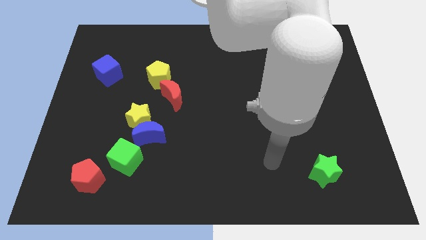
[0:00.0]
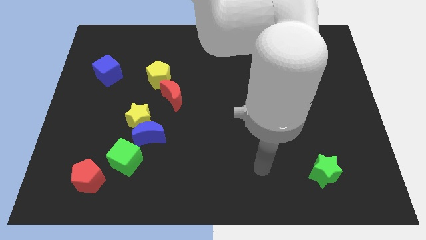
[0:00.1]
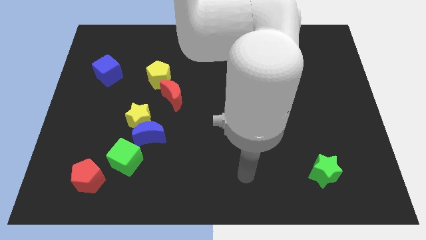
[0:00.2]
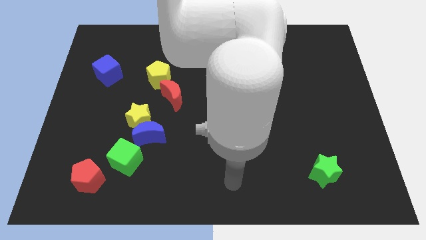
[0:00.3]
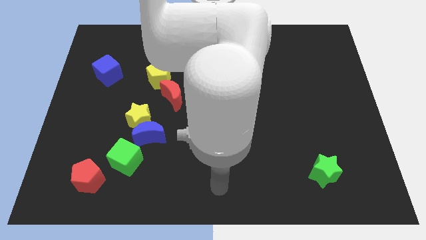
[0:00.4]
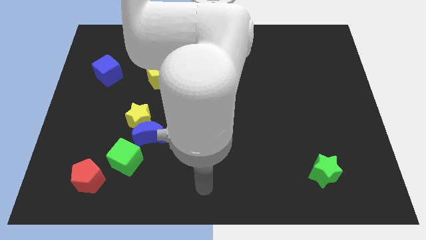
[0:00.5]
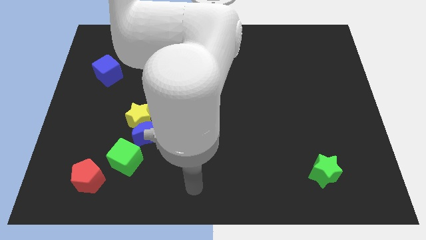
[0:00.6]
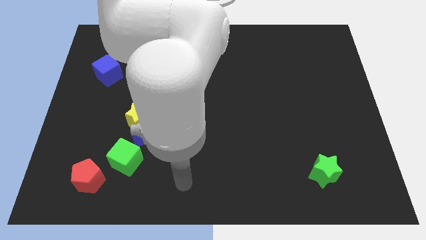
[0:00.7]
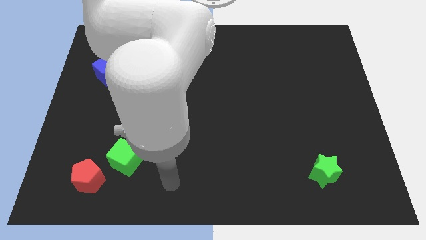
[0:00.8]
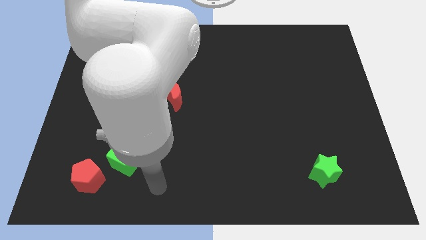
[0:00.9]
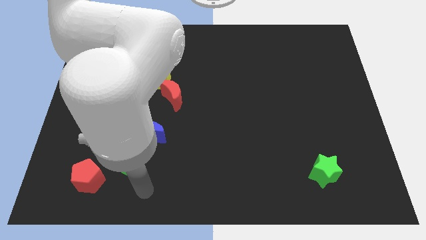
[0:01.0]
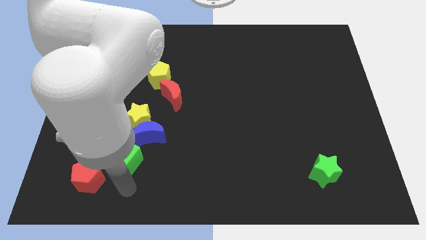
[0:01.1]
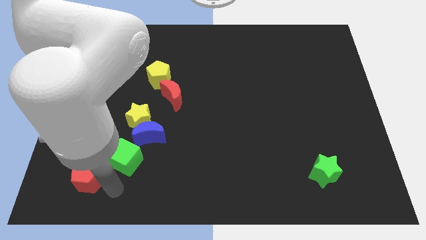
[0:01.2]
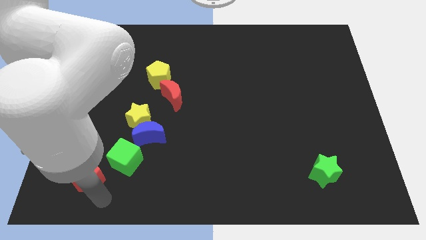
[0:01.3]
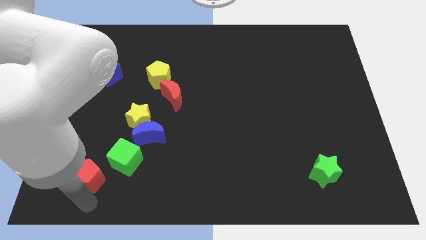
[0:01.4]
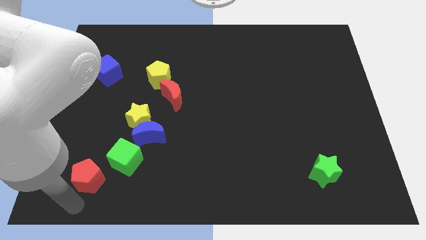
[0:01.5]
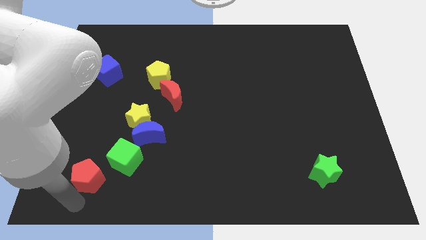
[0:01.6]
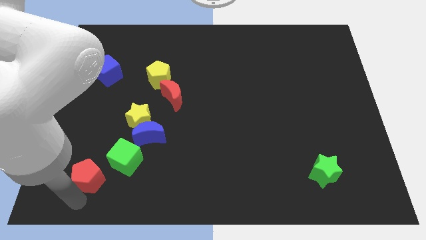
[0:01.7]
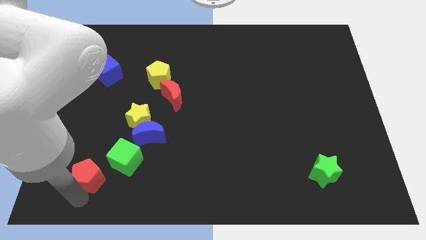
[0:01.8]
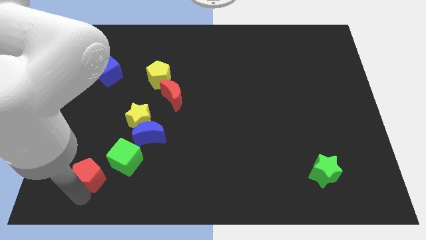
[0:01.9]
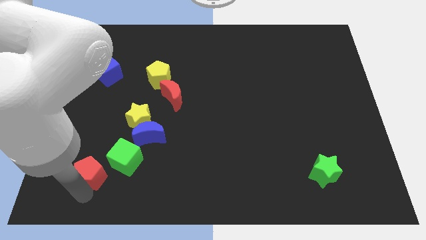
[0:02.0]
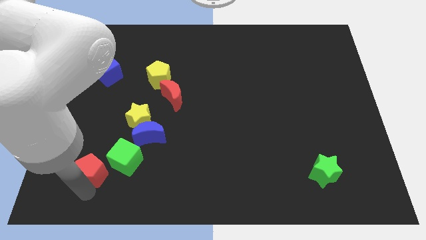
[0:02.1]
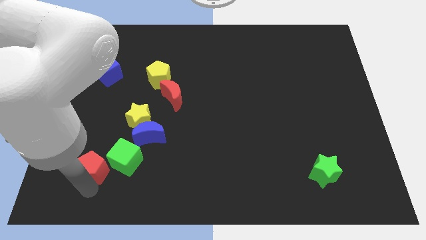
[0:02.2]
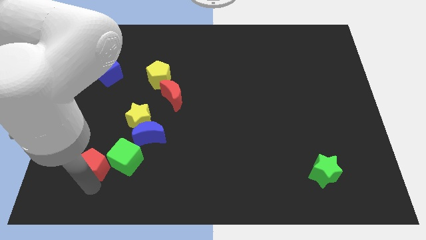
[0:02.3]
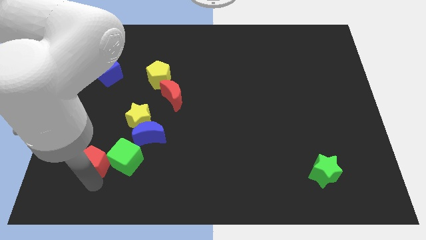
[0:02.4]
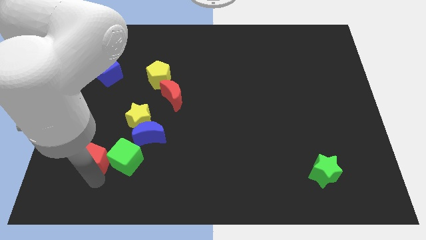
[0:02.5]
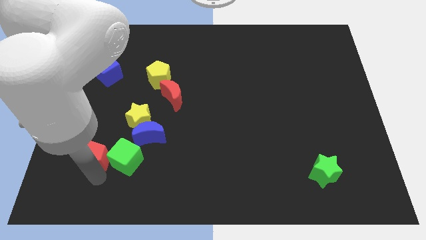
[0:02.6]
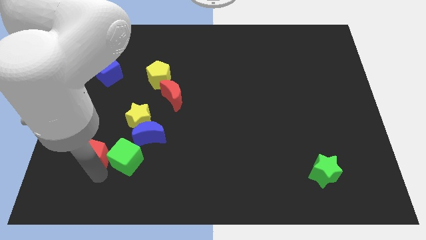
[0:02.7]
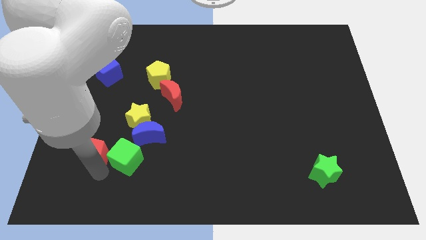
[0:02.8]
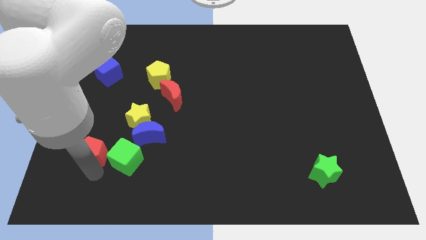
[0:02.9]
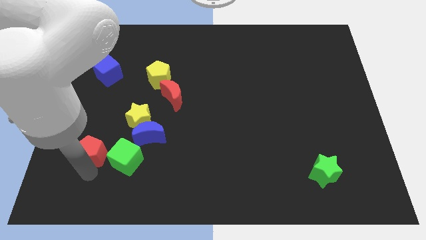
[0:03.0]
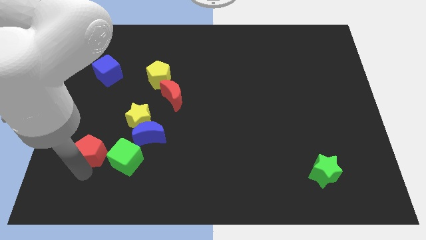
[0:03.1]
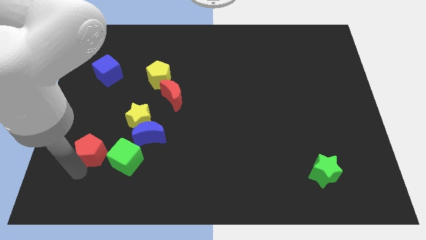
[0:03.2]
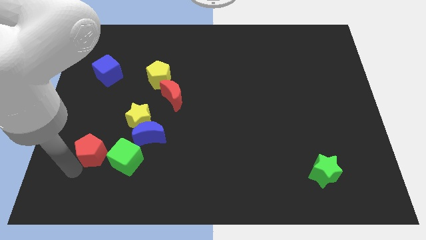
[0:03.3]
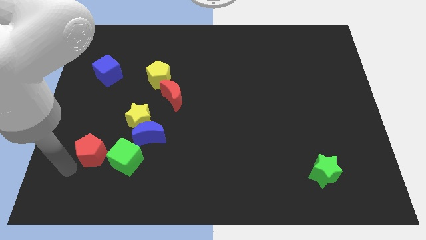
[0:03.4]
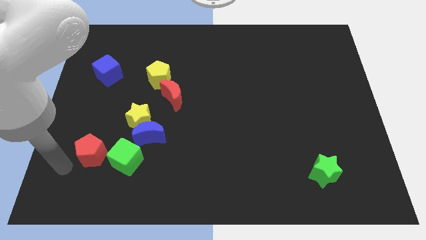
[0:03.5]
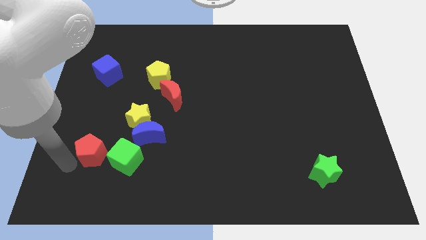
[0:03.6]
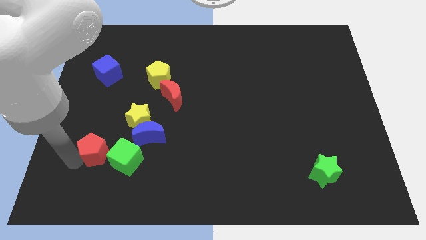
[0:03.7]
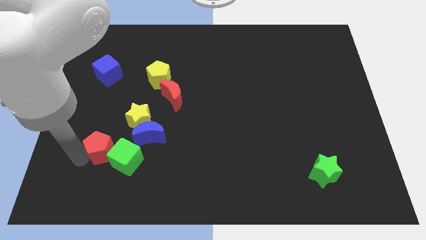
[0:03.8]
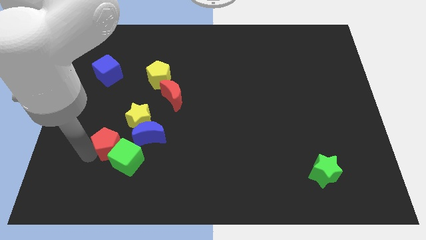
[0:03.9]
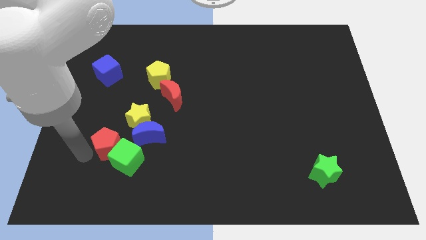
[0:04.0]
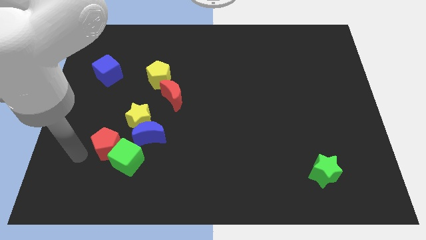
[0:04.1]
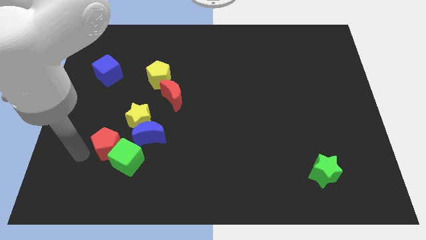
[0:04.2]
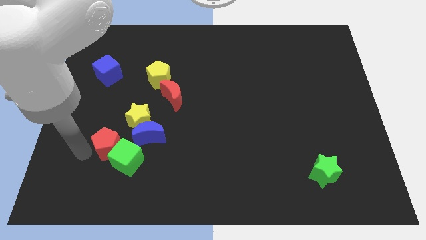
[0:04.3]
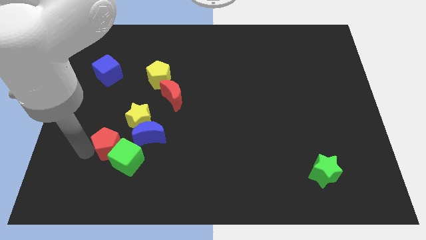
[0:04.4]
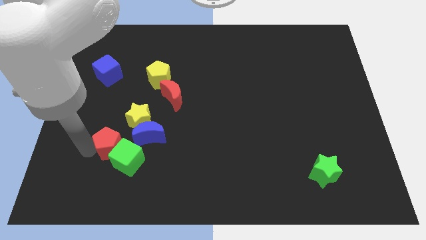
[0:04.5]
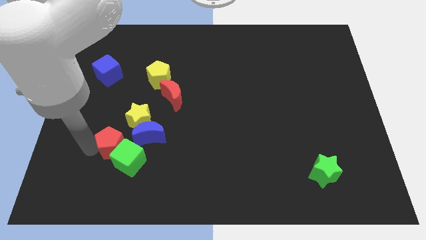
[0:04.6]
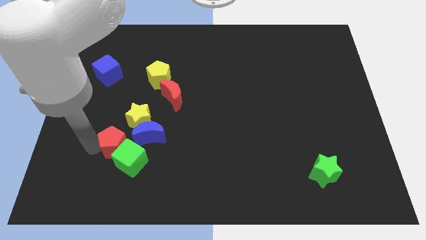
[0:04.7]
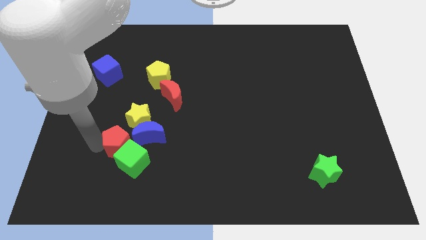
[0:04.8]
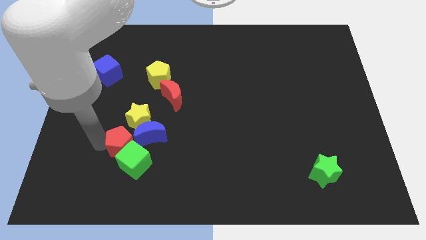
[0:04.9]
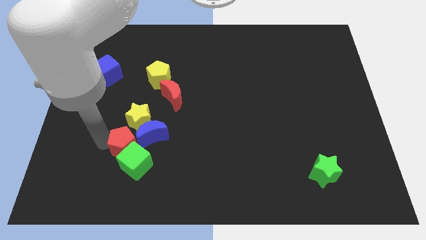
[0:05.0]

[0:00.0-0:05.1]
slide the red pentagon towards the blue moon

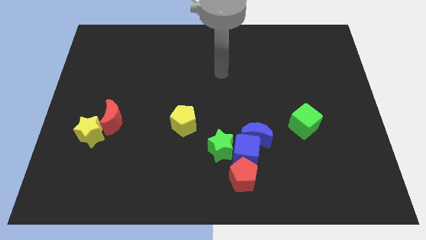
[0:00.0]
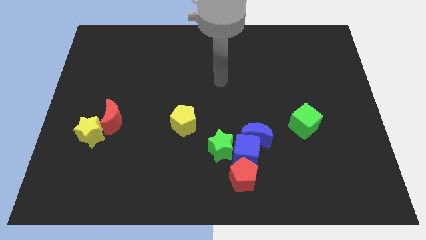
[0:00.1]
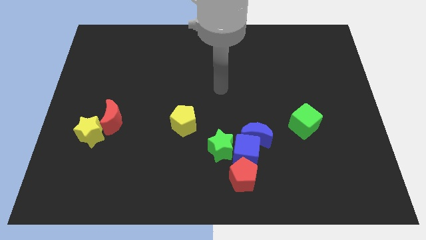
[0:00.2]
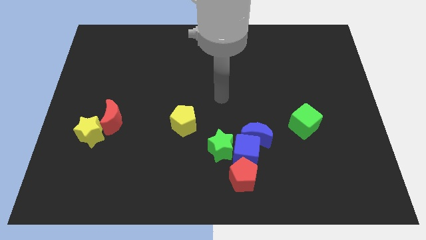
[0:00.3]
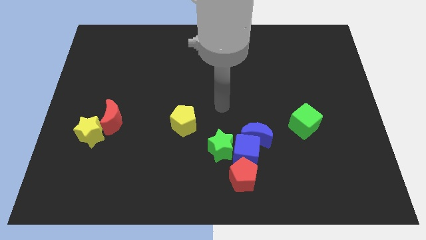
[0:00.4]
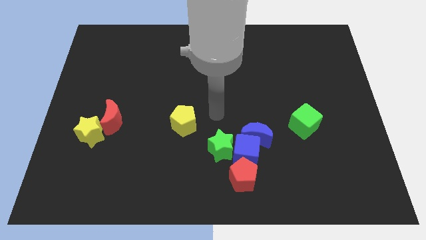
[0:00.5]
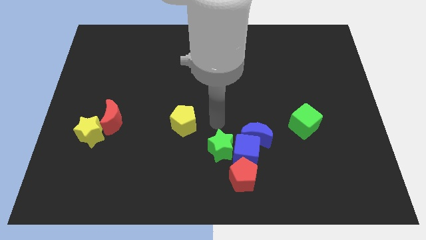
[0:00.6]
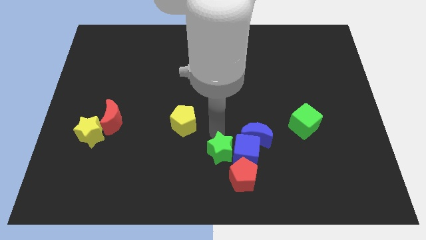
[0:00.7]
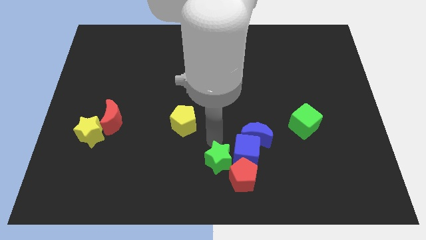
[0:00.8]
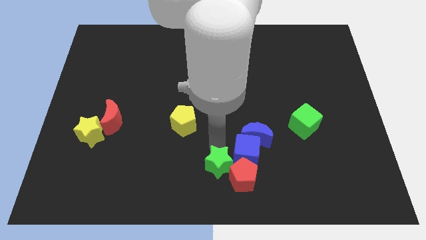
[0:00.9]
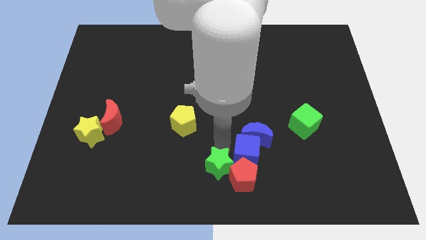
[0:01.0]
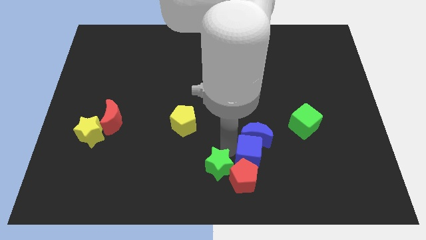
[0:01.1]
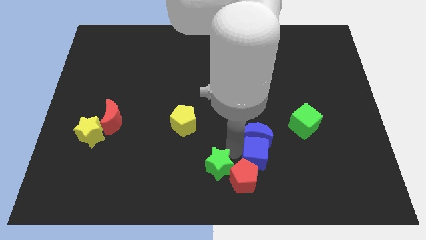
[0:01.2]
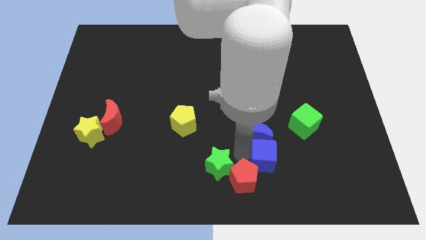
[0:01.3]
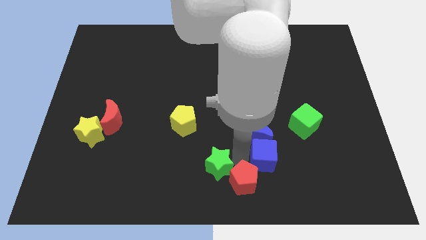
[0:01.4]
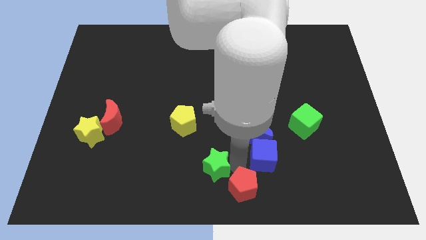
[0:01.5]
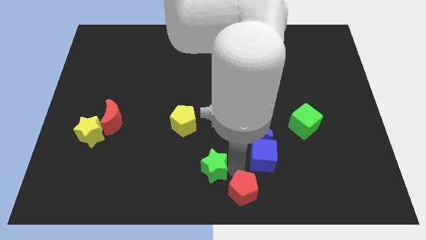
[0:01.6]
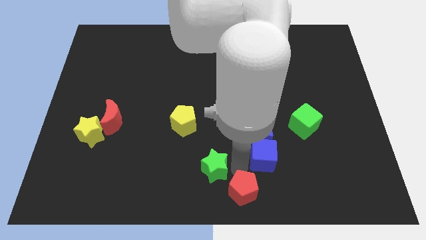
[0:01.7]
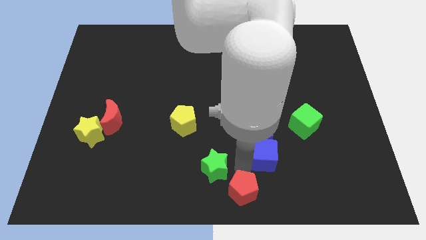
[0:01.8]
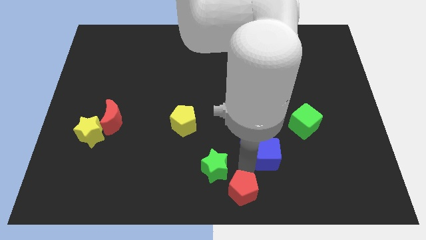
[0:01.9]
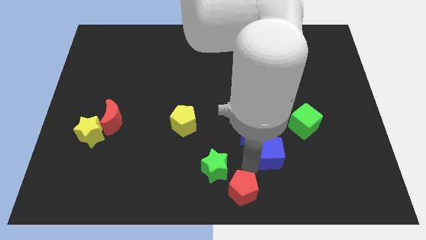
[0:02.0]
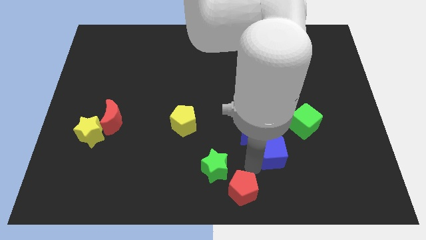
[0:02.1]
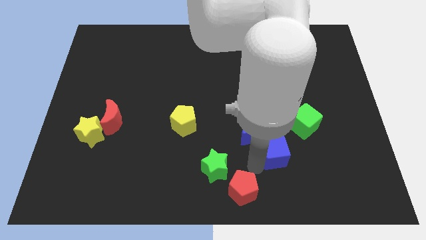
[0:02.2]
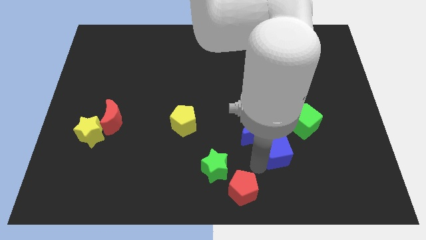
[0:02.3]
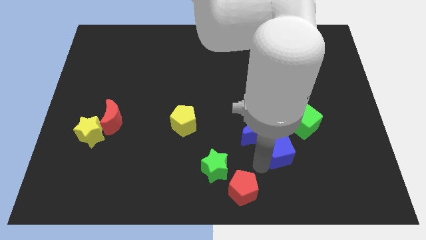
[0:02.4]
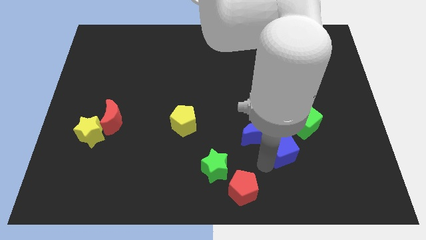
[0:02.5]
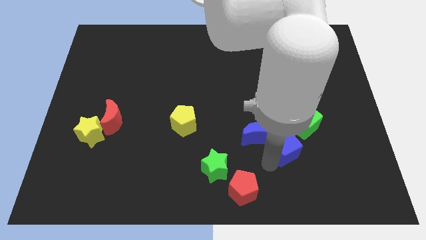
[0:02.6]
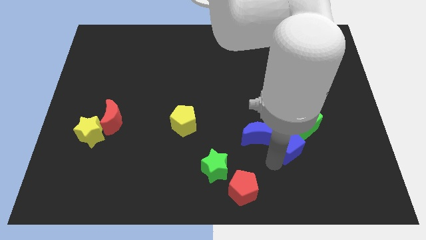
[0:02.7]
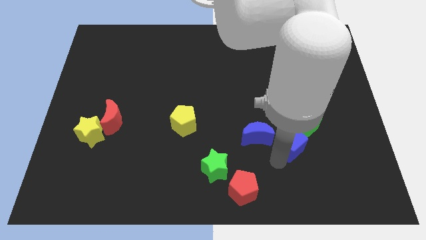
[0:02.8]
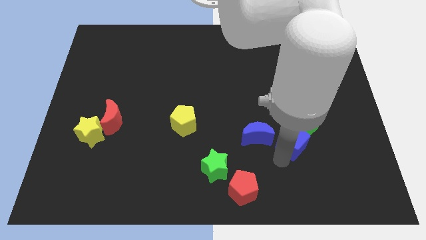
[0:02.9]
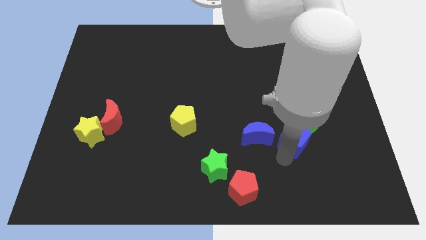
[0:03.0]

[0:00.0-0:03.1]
move the blue cube close to the green cube

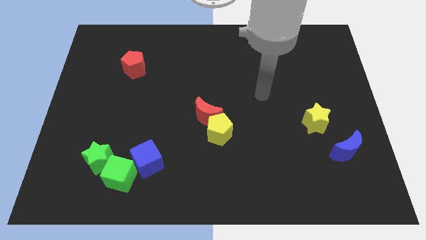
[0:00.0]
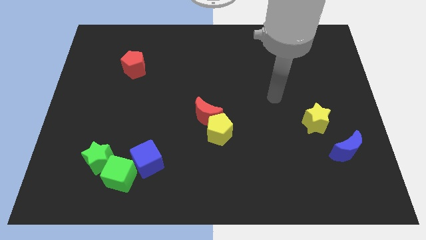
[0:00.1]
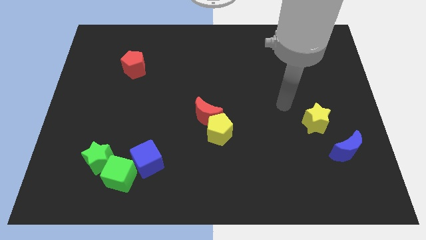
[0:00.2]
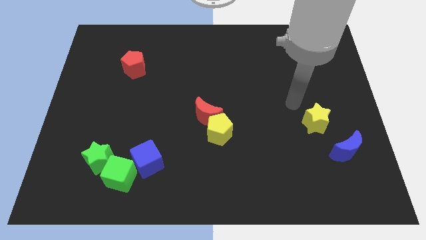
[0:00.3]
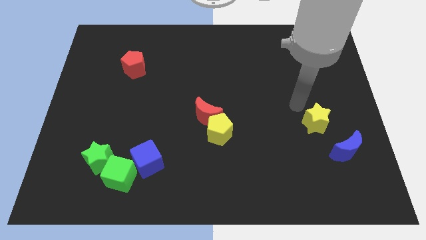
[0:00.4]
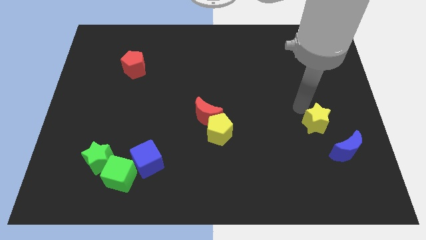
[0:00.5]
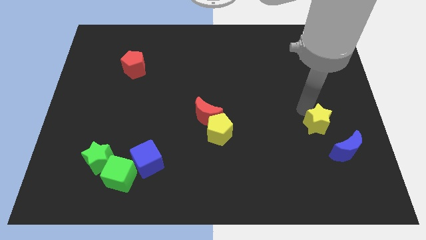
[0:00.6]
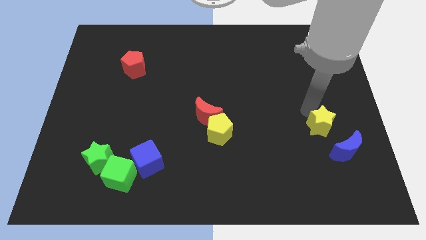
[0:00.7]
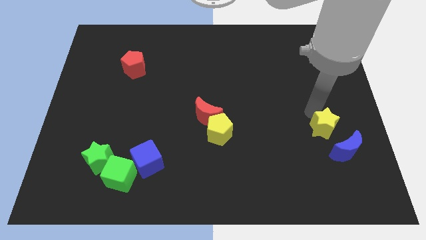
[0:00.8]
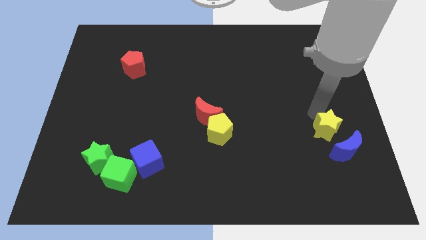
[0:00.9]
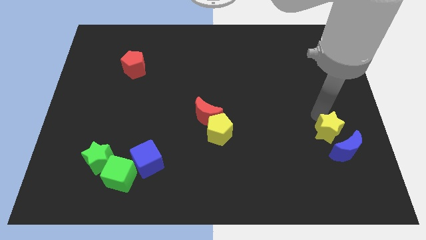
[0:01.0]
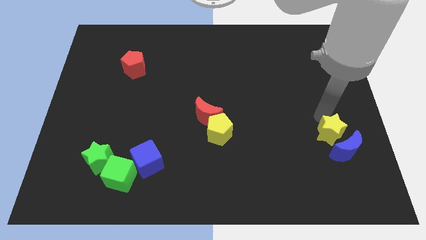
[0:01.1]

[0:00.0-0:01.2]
put the yellow star close to the blue moon
